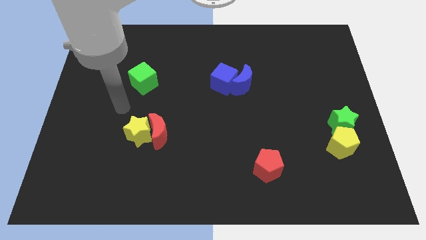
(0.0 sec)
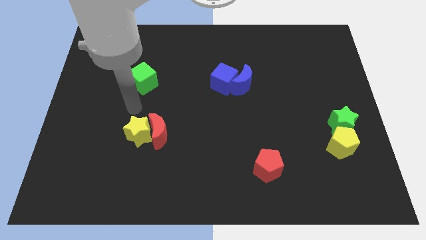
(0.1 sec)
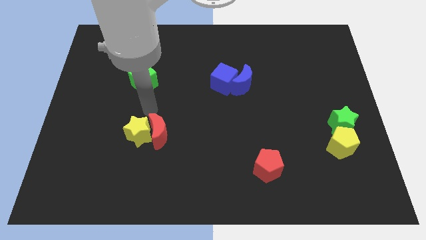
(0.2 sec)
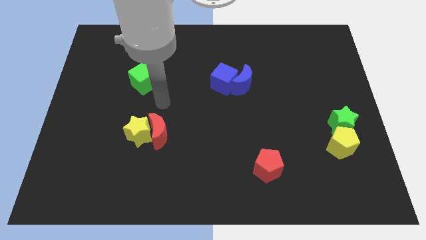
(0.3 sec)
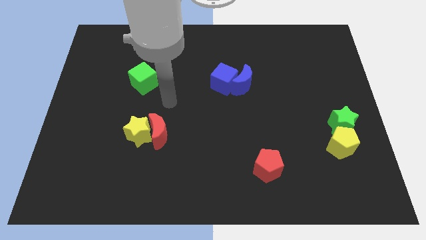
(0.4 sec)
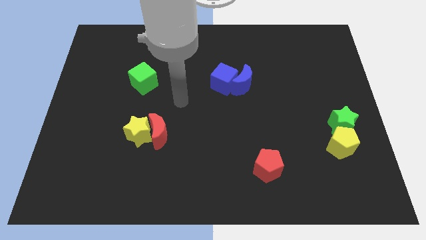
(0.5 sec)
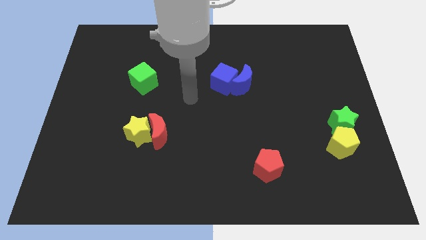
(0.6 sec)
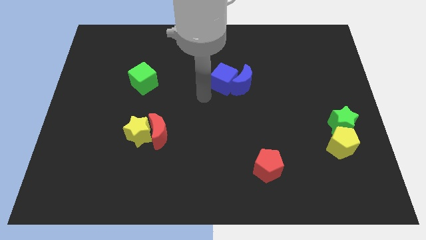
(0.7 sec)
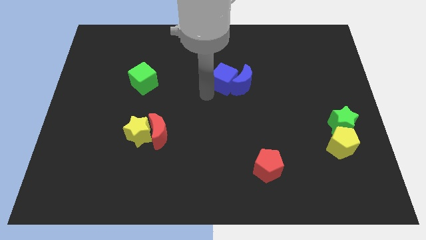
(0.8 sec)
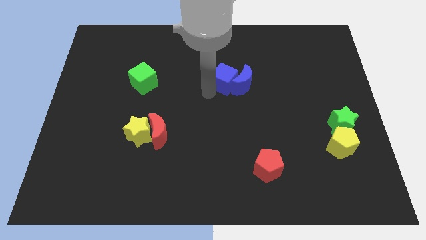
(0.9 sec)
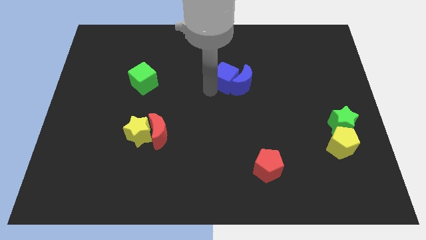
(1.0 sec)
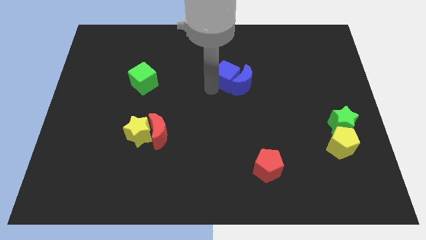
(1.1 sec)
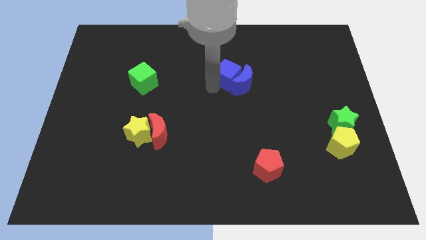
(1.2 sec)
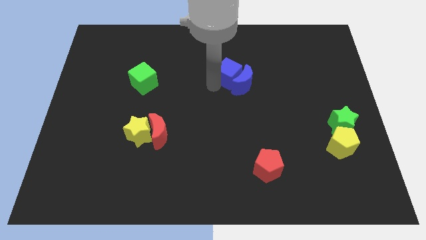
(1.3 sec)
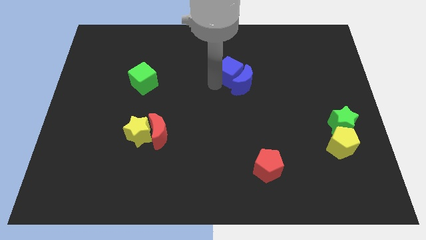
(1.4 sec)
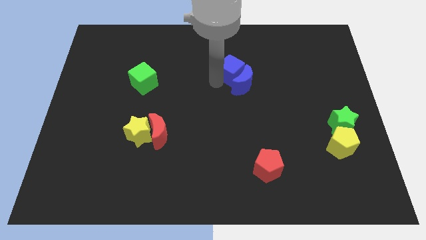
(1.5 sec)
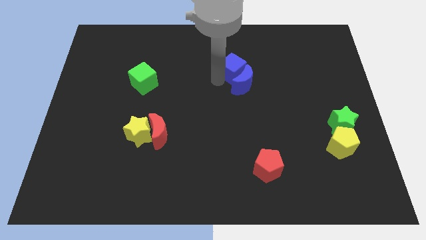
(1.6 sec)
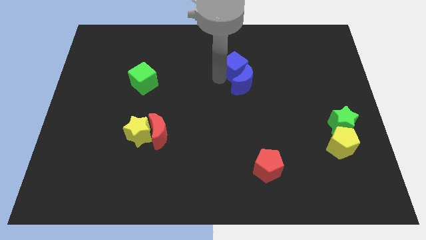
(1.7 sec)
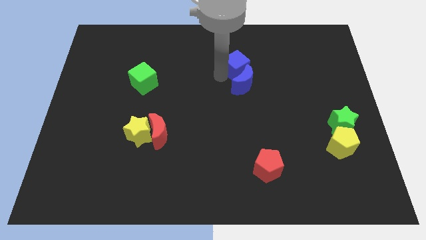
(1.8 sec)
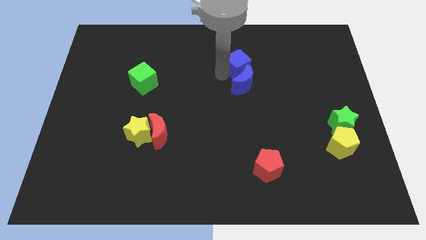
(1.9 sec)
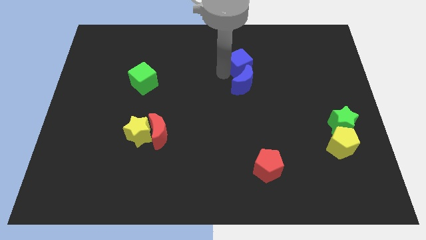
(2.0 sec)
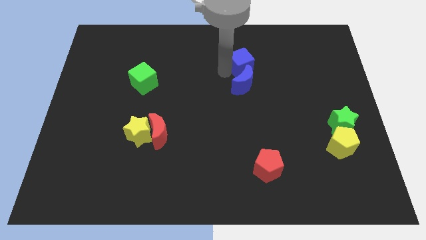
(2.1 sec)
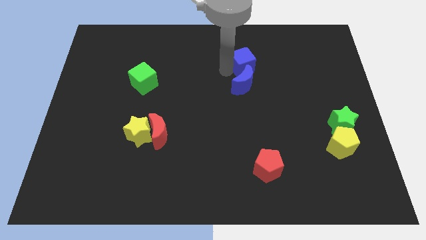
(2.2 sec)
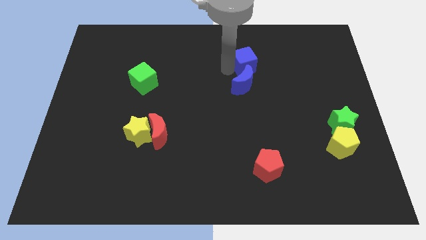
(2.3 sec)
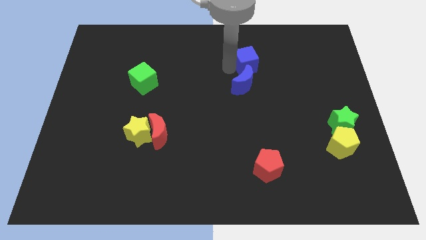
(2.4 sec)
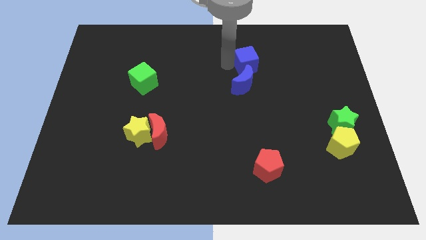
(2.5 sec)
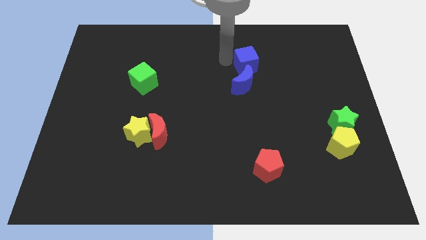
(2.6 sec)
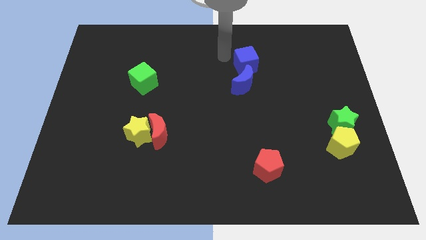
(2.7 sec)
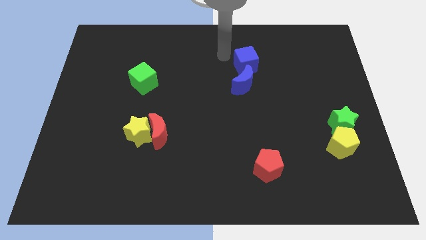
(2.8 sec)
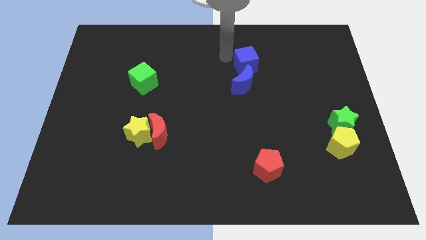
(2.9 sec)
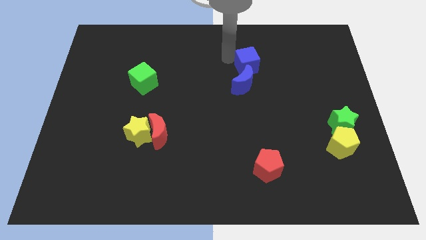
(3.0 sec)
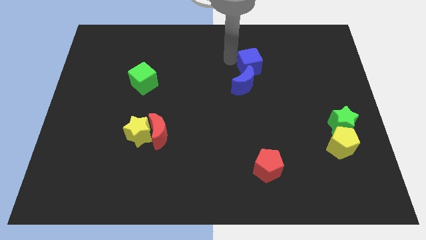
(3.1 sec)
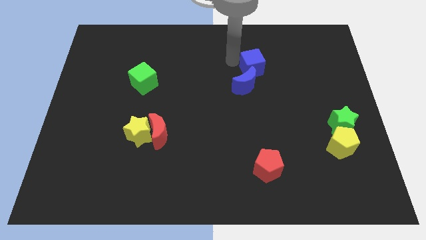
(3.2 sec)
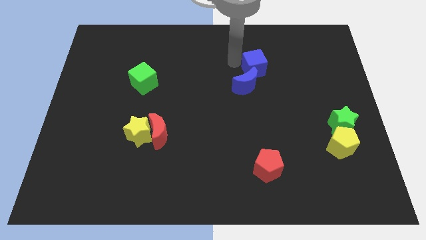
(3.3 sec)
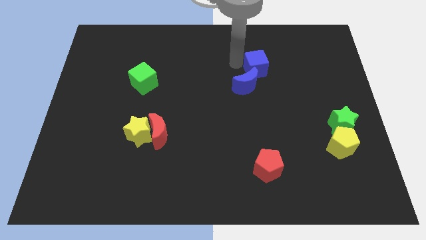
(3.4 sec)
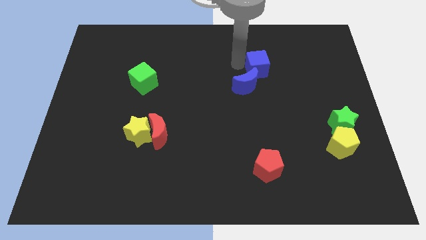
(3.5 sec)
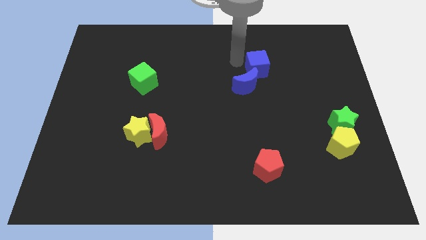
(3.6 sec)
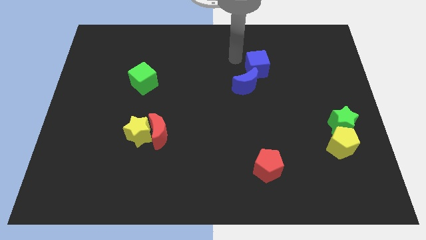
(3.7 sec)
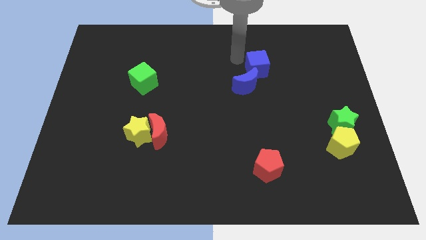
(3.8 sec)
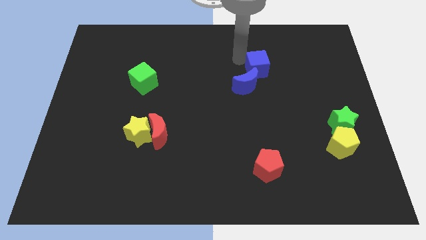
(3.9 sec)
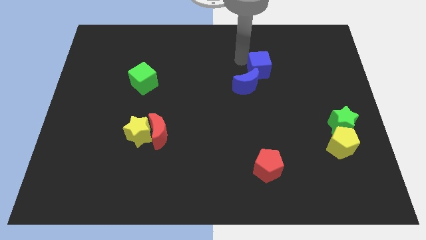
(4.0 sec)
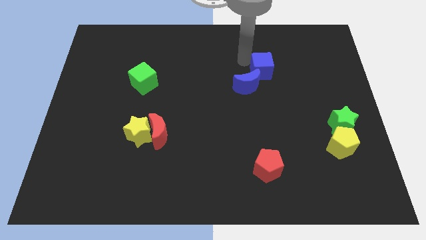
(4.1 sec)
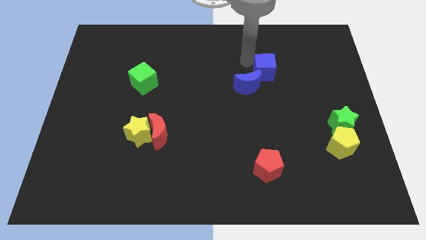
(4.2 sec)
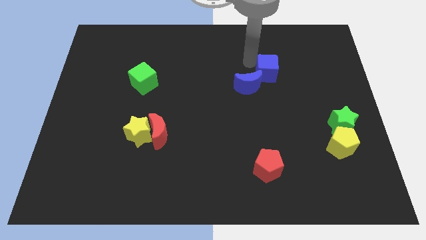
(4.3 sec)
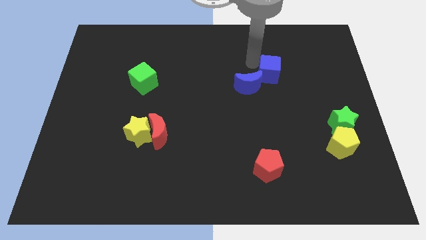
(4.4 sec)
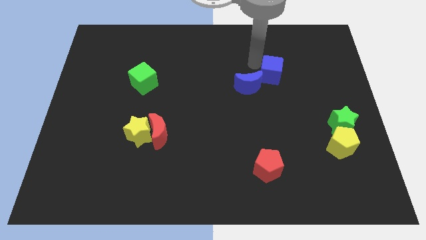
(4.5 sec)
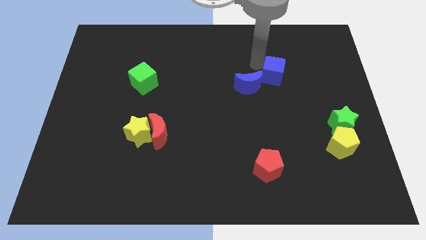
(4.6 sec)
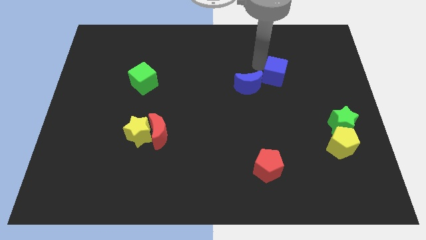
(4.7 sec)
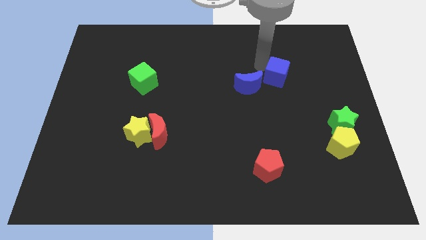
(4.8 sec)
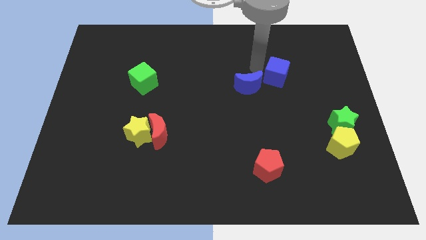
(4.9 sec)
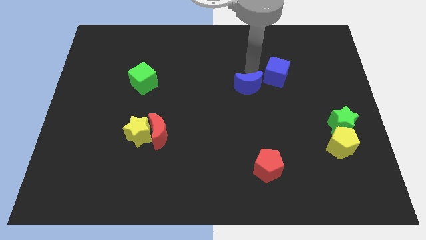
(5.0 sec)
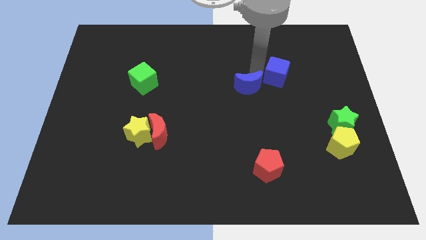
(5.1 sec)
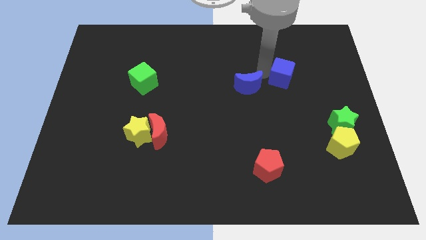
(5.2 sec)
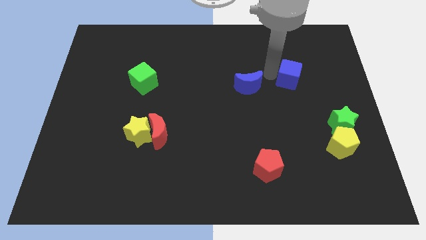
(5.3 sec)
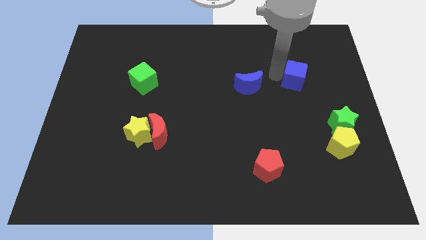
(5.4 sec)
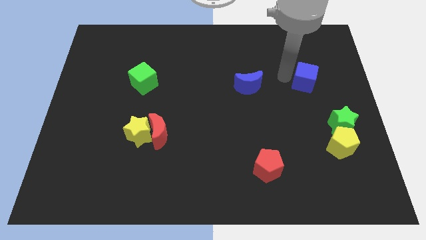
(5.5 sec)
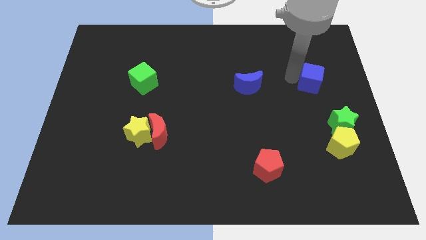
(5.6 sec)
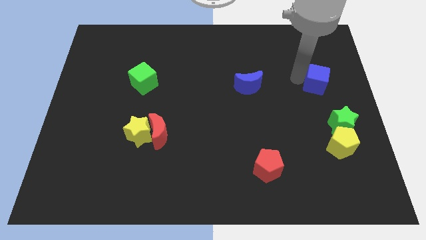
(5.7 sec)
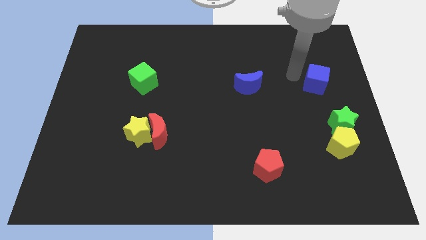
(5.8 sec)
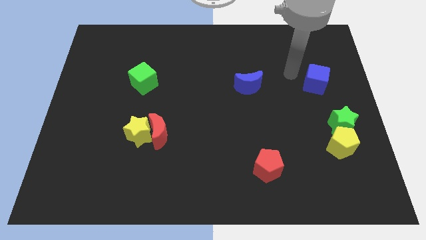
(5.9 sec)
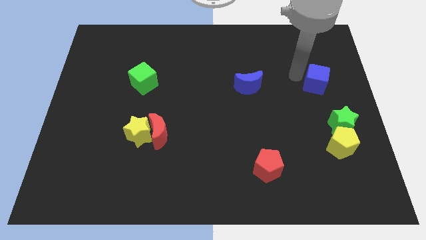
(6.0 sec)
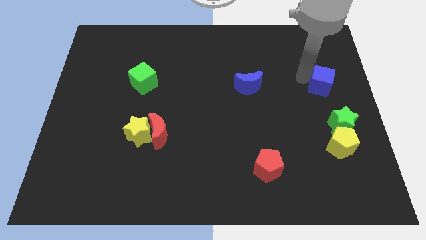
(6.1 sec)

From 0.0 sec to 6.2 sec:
slide the blue cube to the center right

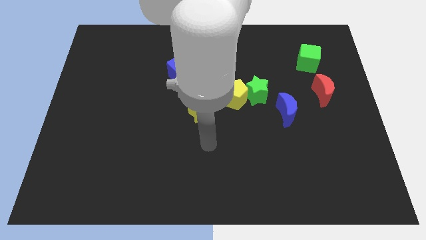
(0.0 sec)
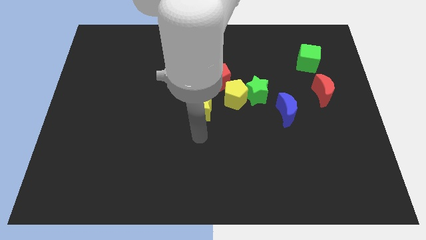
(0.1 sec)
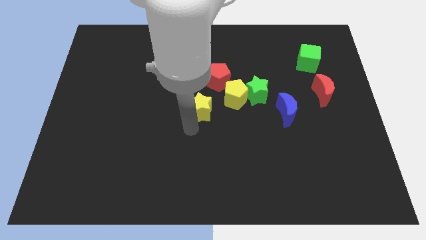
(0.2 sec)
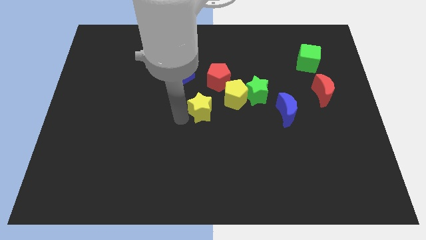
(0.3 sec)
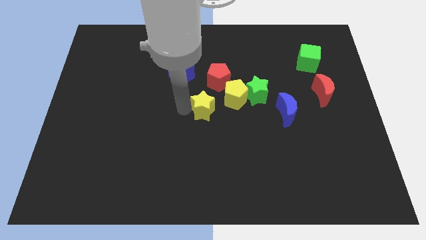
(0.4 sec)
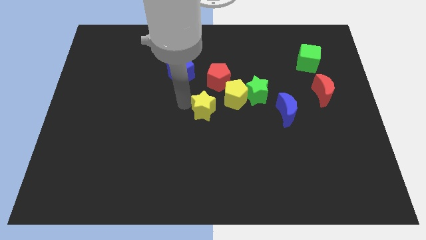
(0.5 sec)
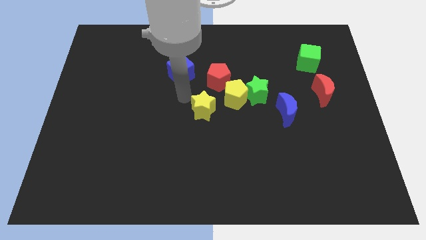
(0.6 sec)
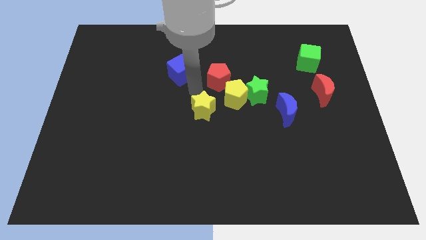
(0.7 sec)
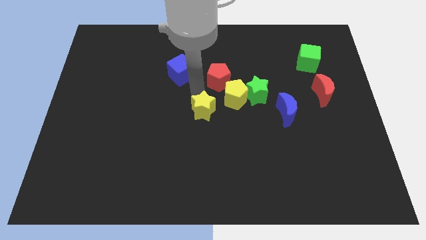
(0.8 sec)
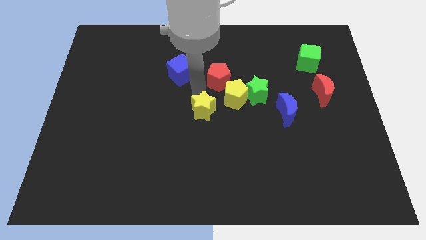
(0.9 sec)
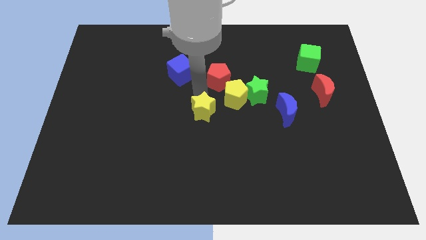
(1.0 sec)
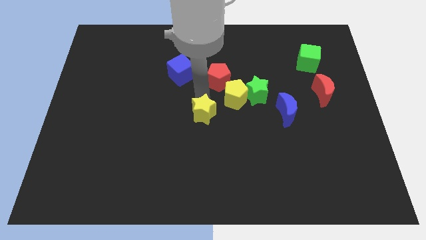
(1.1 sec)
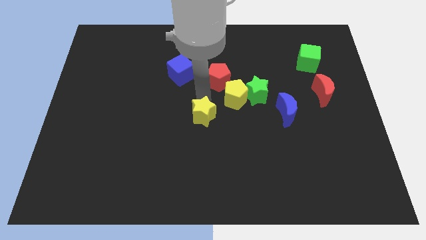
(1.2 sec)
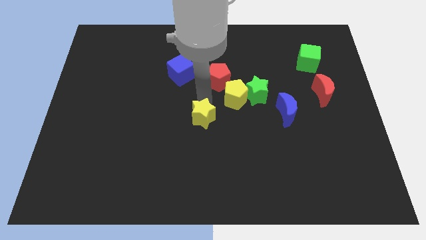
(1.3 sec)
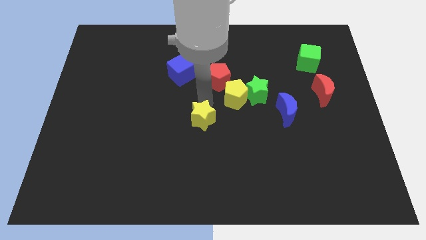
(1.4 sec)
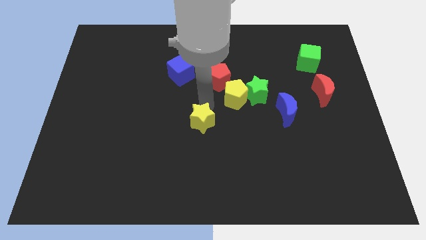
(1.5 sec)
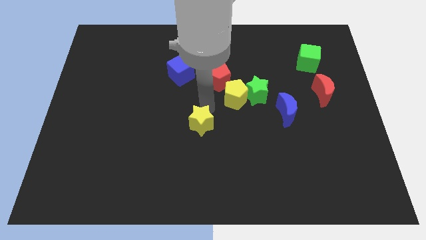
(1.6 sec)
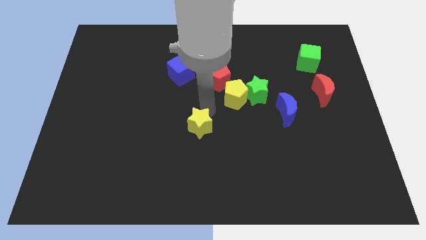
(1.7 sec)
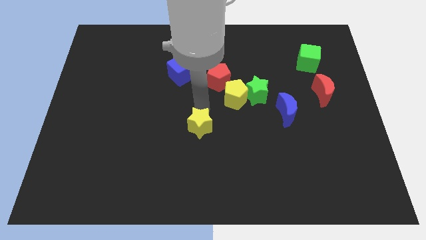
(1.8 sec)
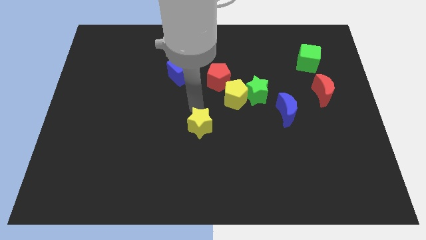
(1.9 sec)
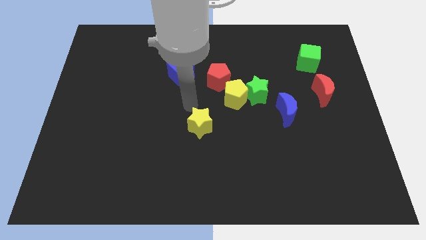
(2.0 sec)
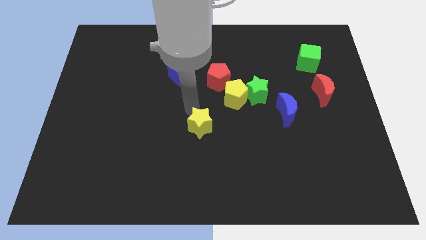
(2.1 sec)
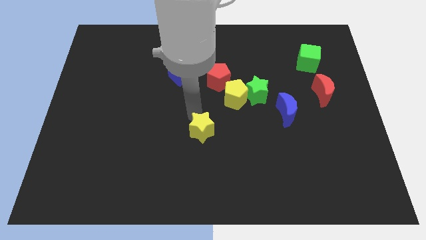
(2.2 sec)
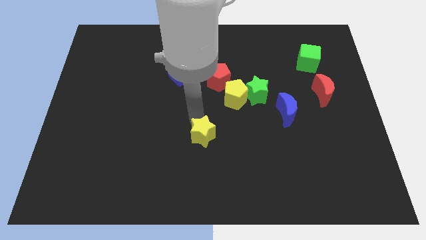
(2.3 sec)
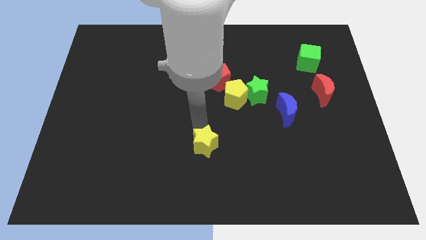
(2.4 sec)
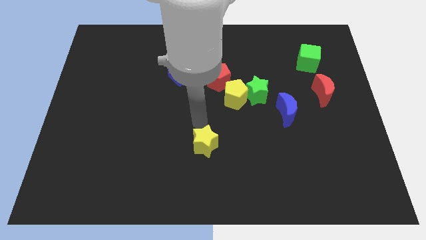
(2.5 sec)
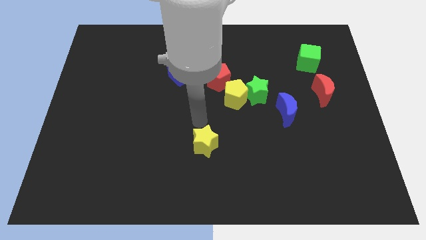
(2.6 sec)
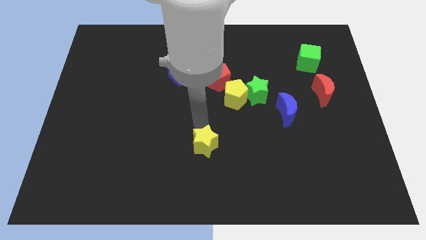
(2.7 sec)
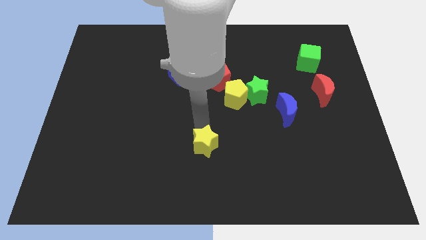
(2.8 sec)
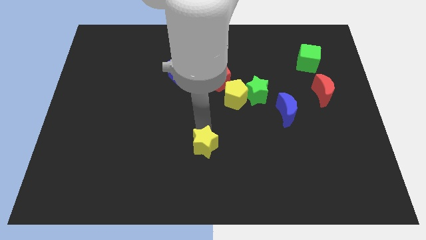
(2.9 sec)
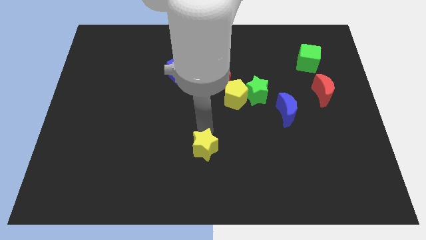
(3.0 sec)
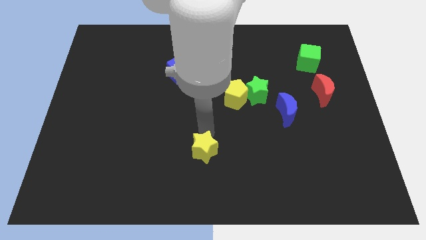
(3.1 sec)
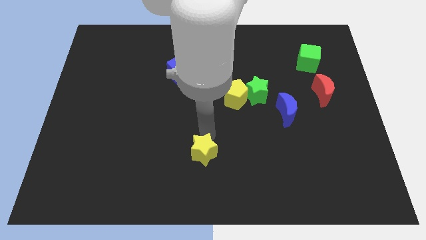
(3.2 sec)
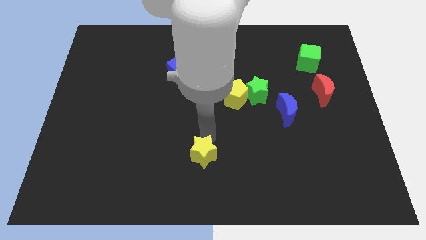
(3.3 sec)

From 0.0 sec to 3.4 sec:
push the yellow star to the bottom side
